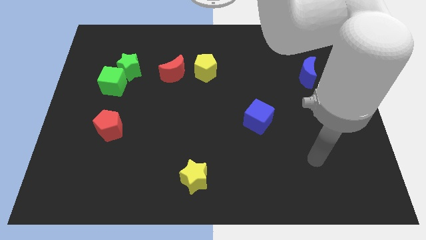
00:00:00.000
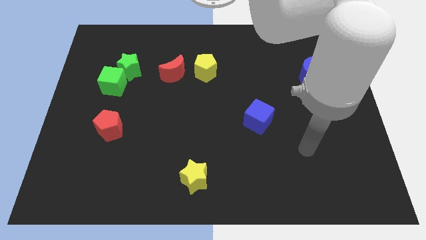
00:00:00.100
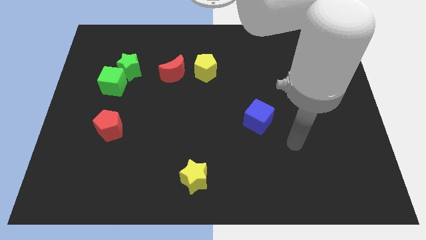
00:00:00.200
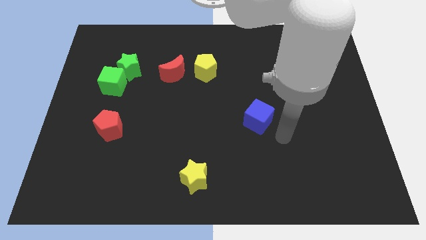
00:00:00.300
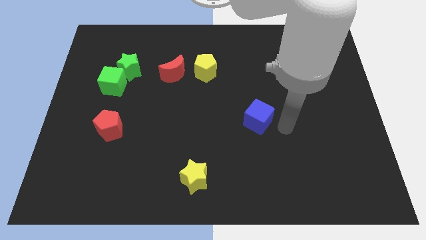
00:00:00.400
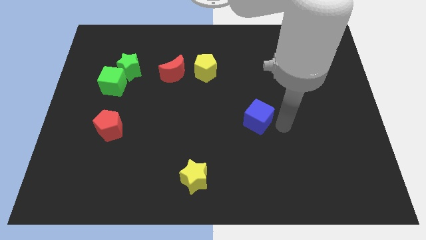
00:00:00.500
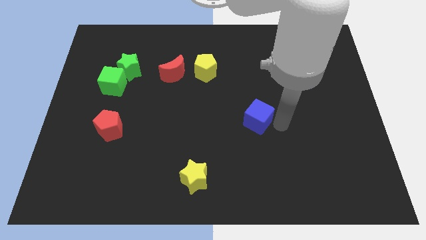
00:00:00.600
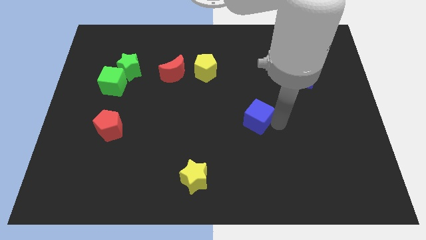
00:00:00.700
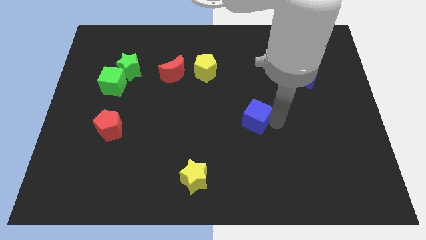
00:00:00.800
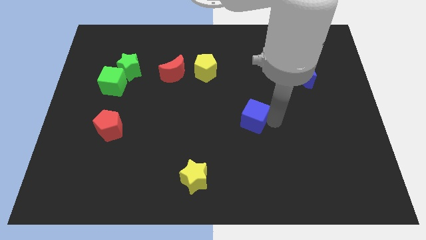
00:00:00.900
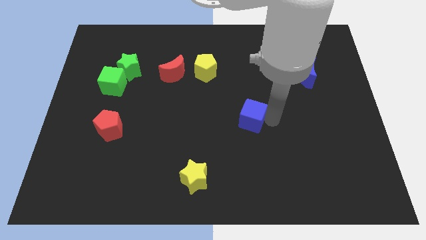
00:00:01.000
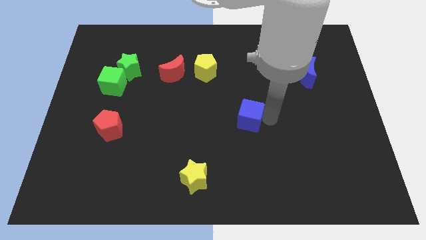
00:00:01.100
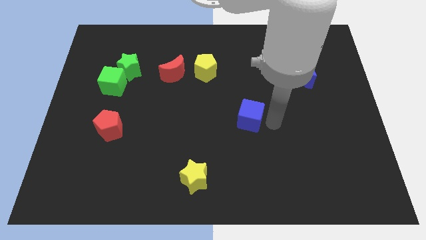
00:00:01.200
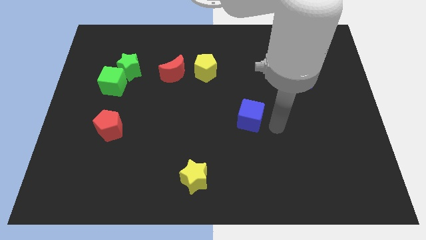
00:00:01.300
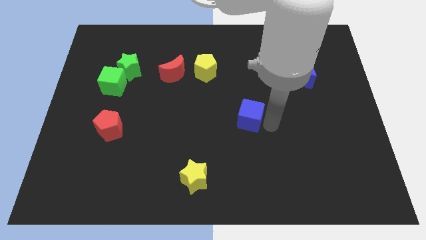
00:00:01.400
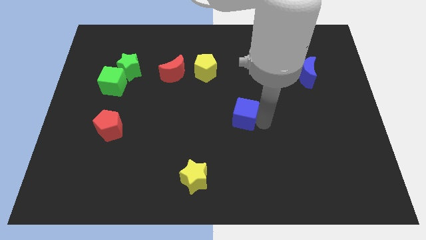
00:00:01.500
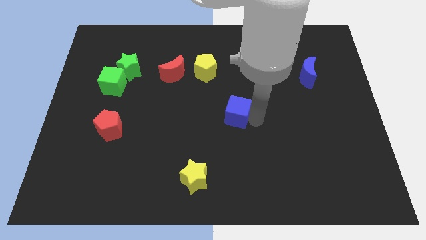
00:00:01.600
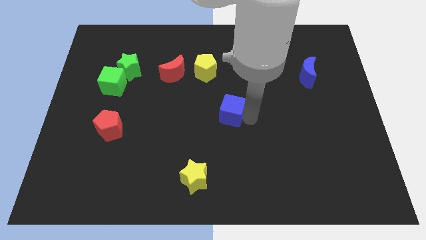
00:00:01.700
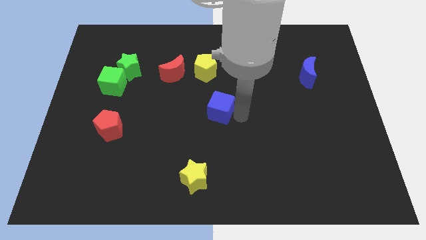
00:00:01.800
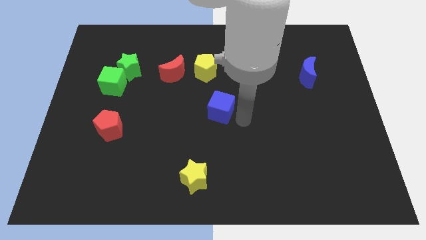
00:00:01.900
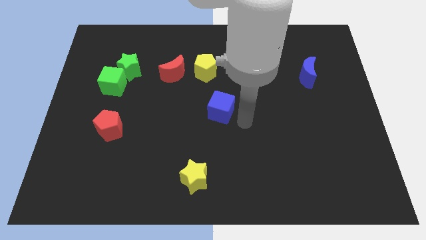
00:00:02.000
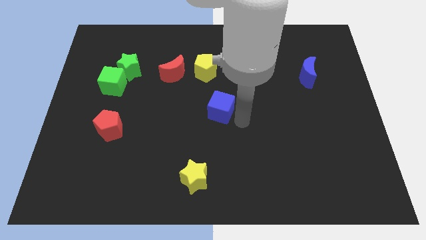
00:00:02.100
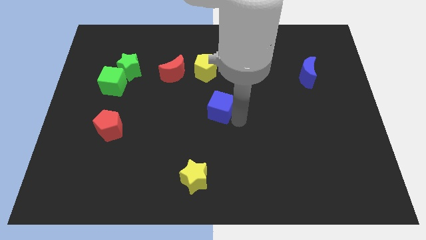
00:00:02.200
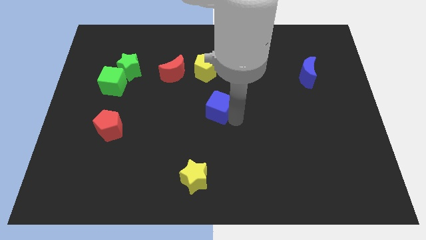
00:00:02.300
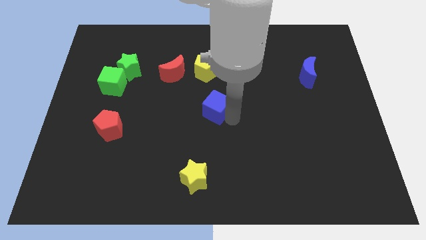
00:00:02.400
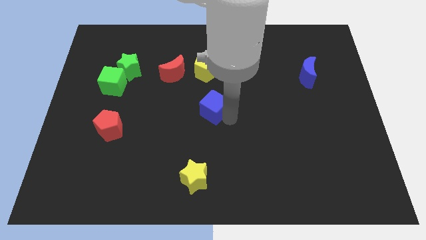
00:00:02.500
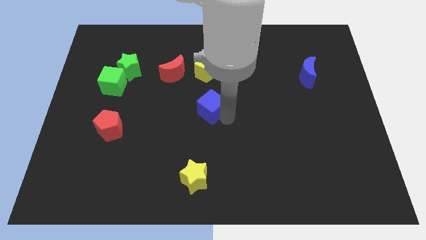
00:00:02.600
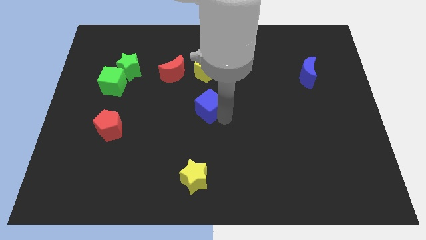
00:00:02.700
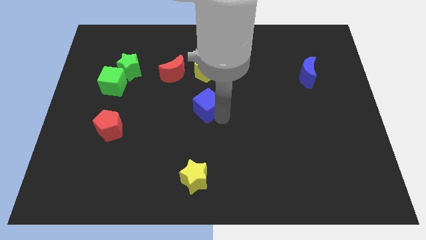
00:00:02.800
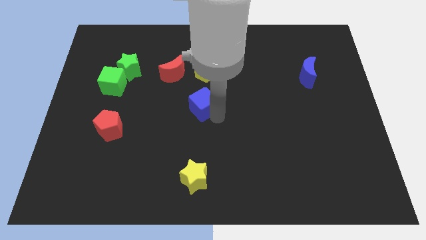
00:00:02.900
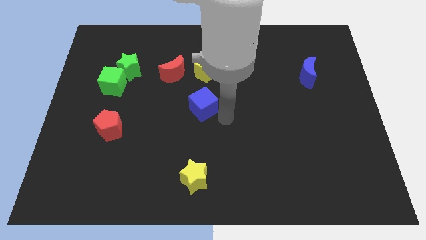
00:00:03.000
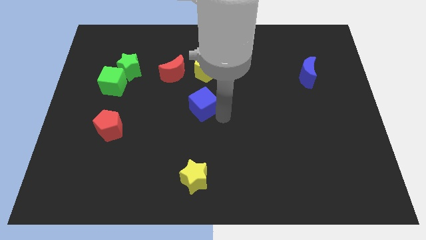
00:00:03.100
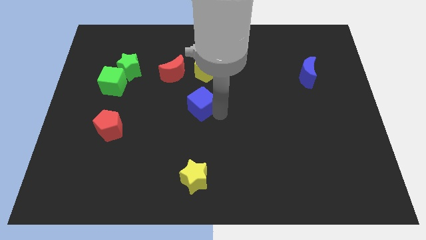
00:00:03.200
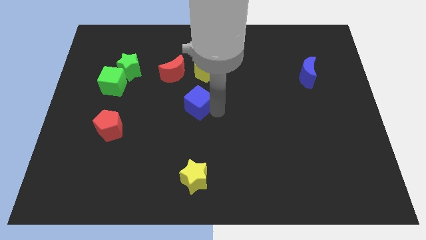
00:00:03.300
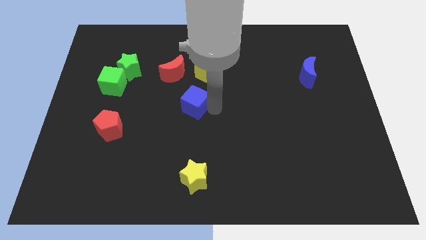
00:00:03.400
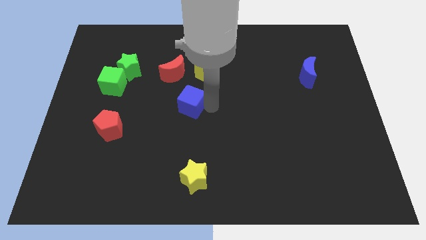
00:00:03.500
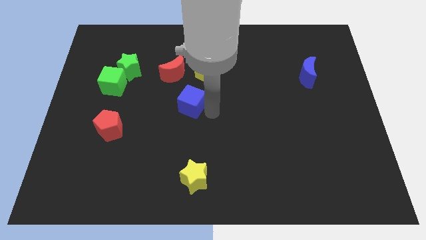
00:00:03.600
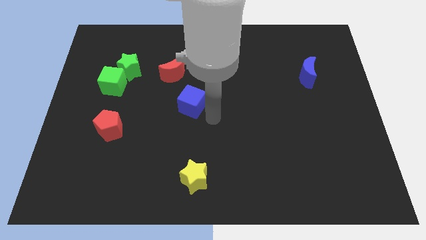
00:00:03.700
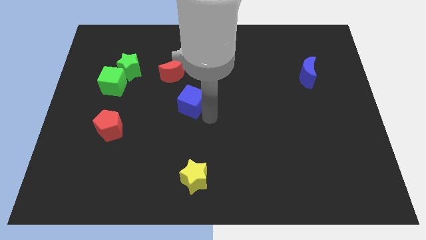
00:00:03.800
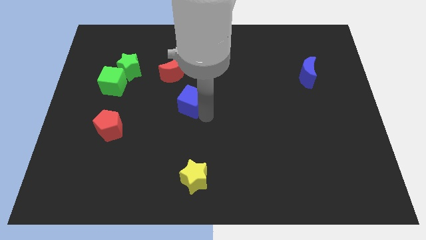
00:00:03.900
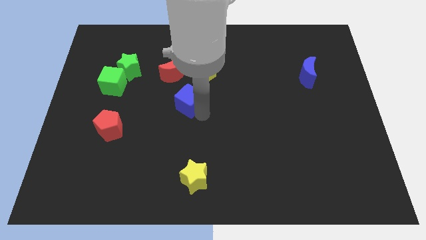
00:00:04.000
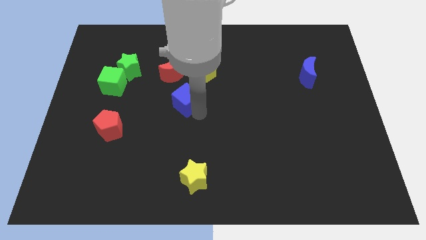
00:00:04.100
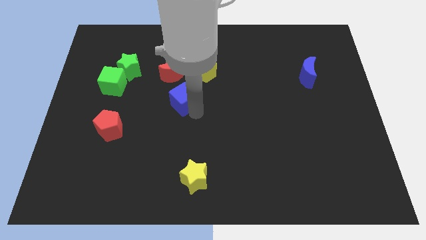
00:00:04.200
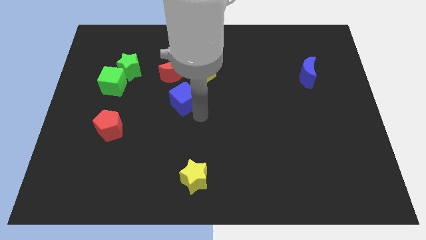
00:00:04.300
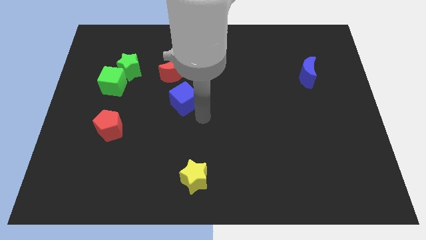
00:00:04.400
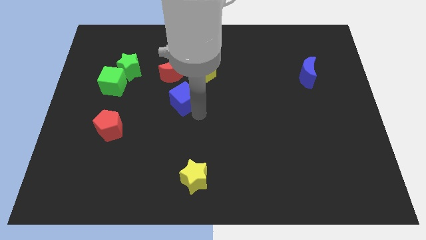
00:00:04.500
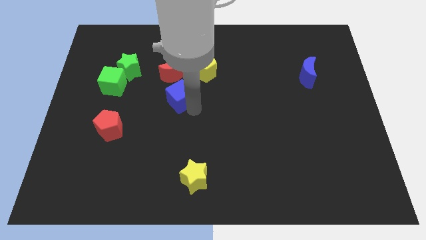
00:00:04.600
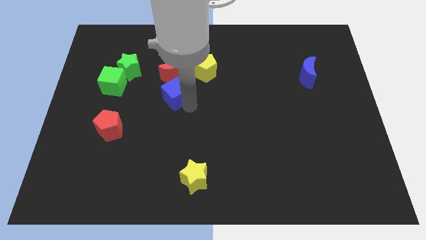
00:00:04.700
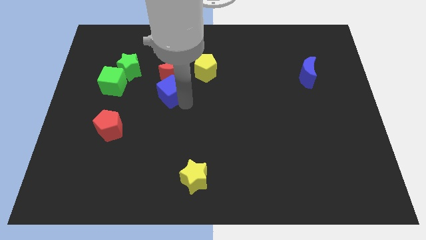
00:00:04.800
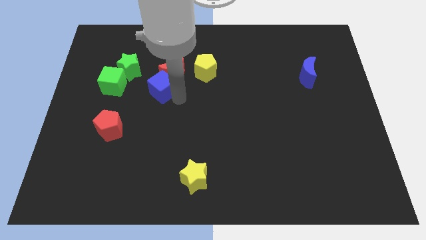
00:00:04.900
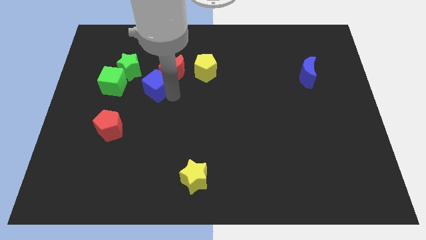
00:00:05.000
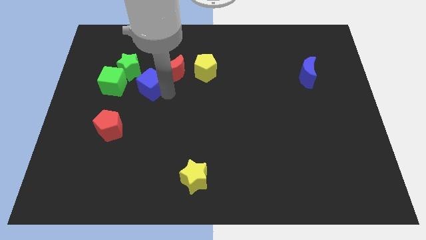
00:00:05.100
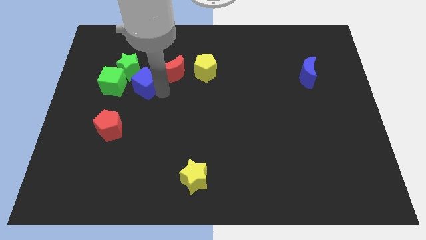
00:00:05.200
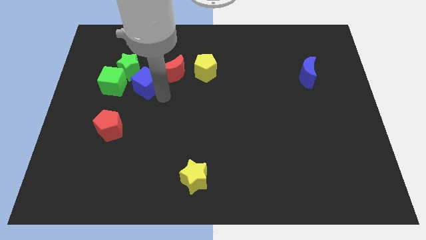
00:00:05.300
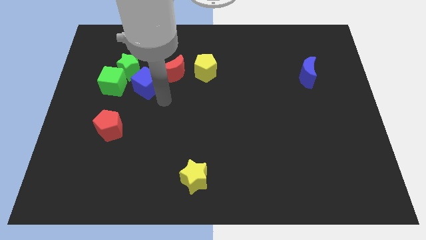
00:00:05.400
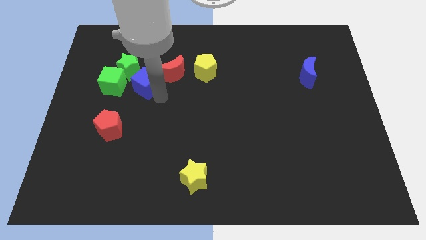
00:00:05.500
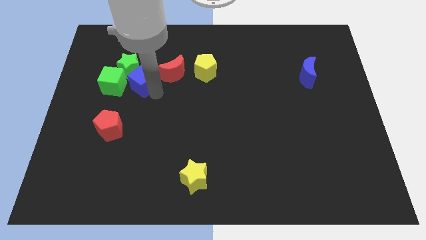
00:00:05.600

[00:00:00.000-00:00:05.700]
put the blue cube next to the green star

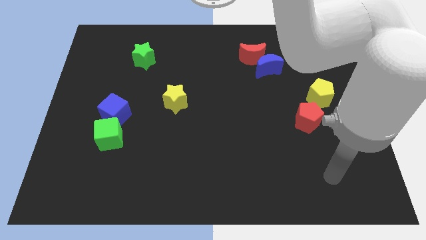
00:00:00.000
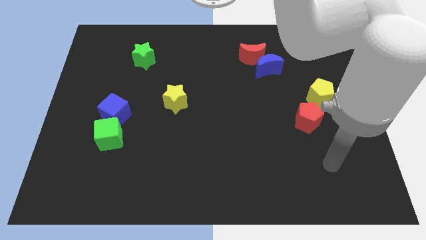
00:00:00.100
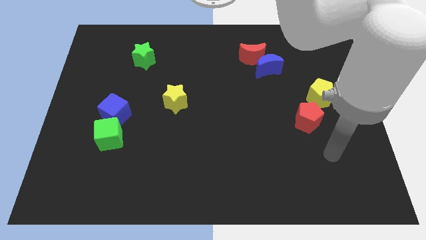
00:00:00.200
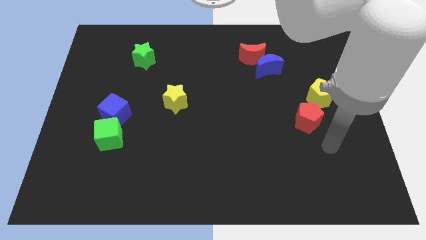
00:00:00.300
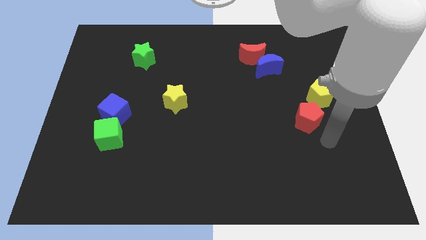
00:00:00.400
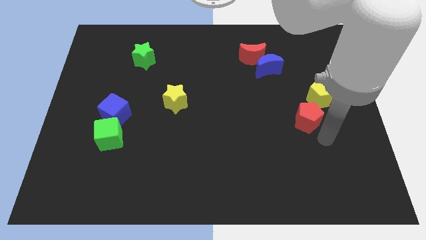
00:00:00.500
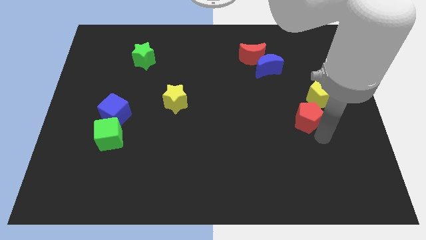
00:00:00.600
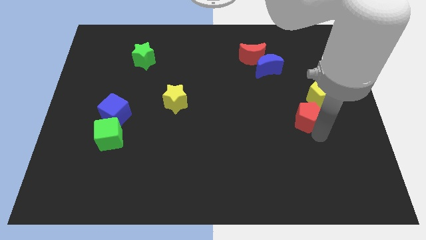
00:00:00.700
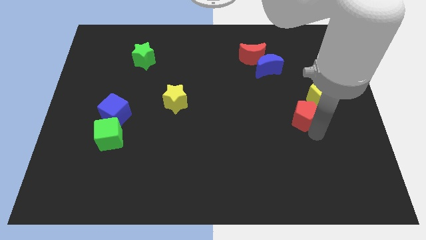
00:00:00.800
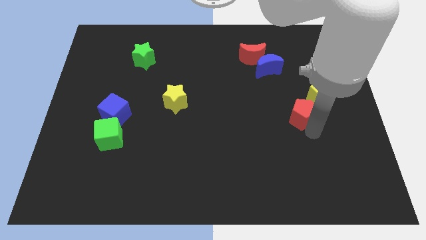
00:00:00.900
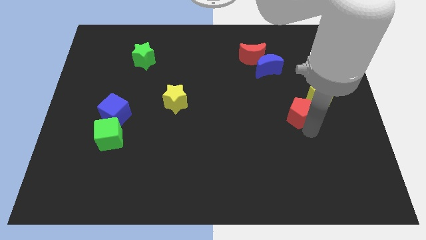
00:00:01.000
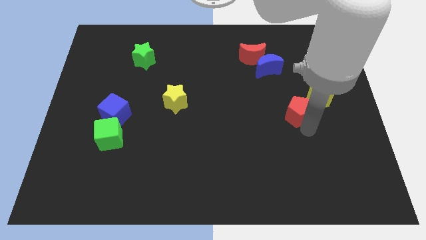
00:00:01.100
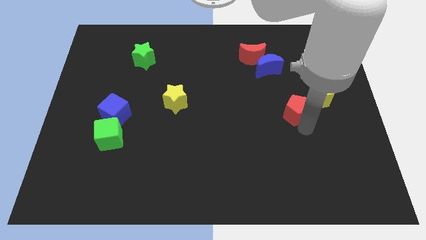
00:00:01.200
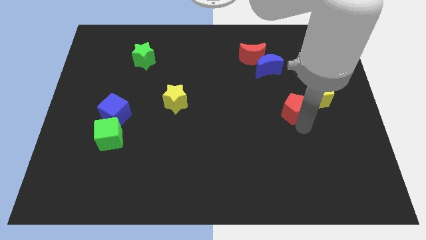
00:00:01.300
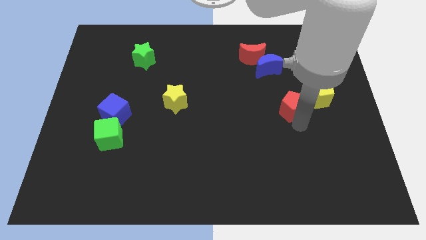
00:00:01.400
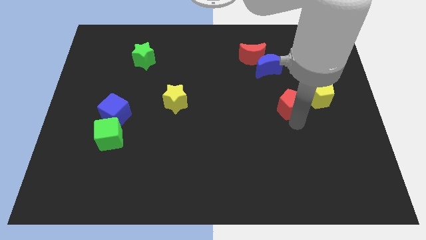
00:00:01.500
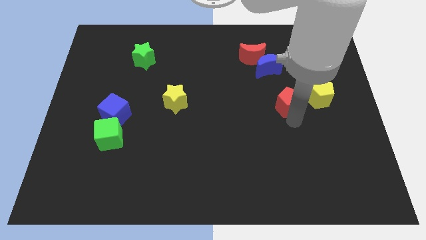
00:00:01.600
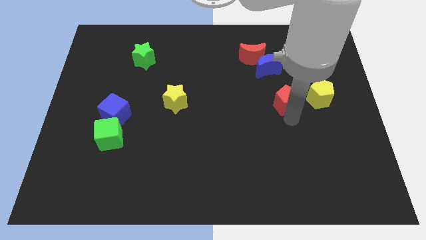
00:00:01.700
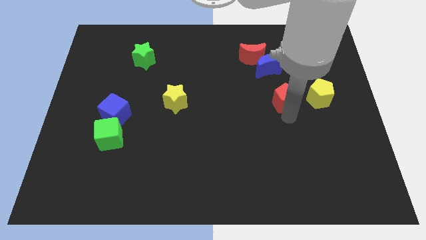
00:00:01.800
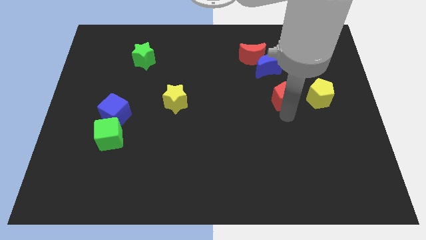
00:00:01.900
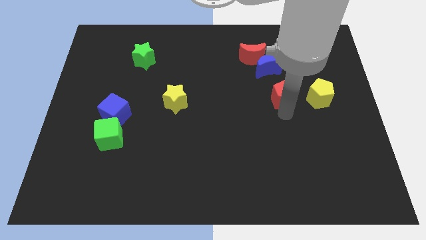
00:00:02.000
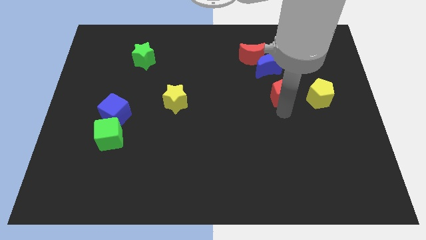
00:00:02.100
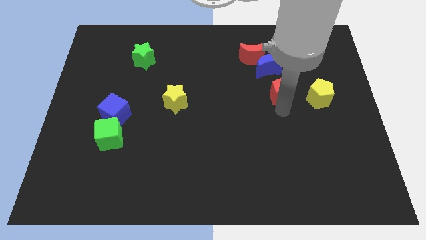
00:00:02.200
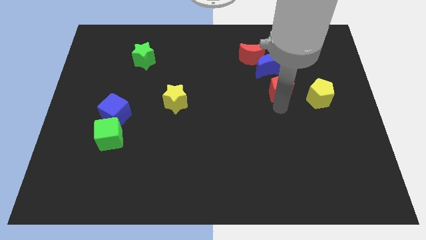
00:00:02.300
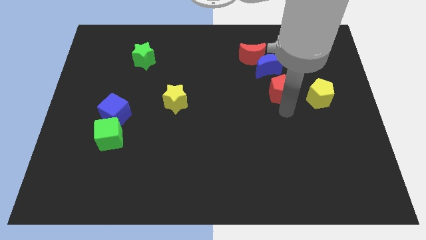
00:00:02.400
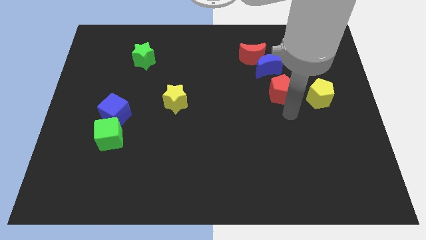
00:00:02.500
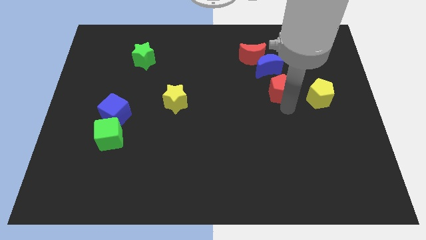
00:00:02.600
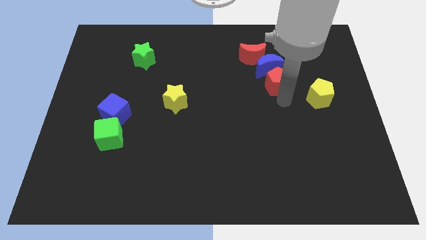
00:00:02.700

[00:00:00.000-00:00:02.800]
move the red pentagon to the blue moon

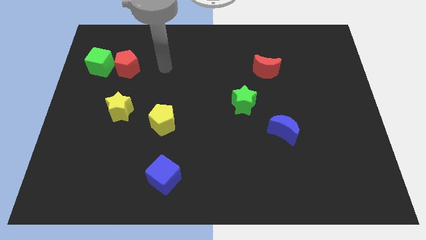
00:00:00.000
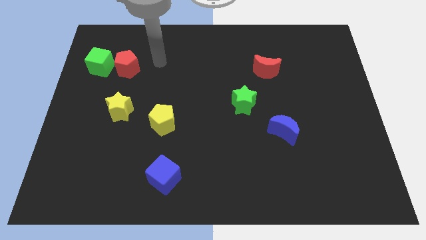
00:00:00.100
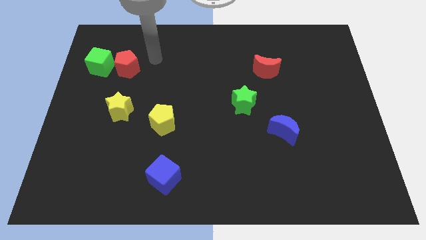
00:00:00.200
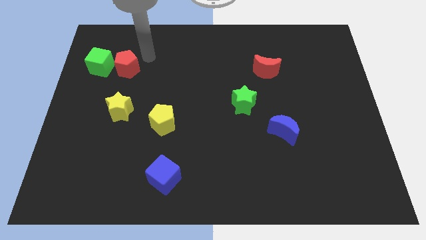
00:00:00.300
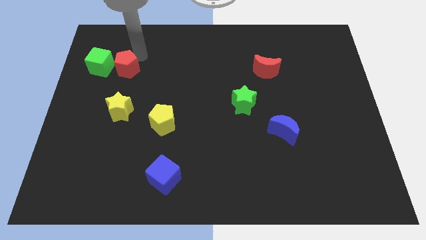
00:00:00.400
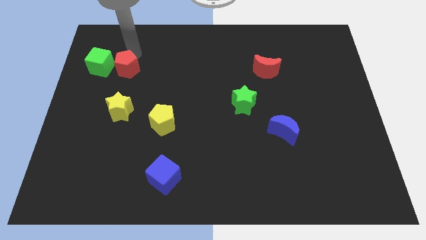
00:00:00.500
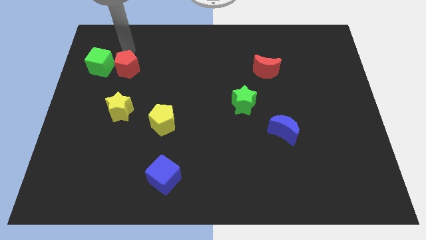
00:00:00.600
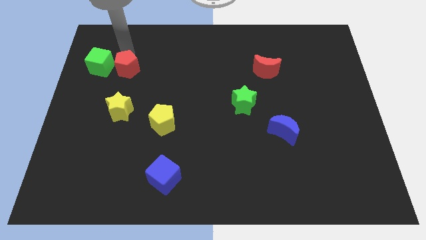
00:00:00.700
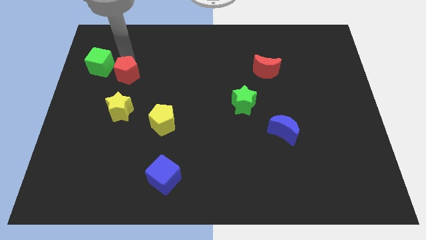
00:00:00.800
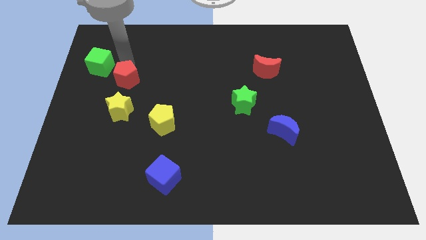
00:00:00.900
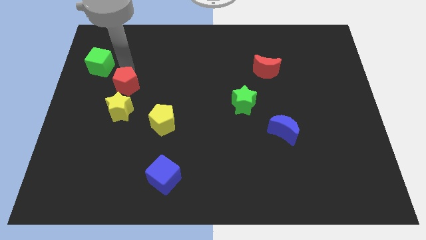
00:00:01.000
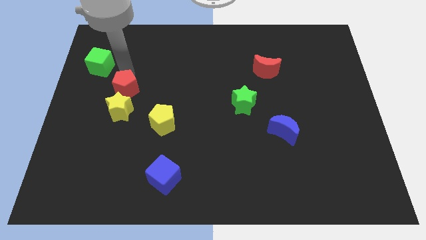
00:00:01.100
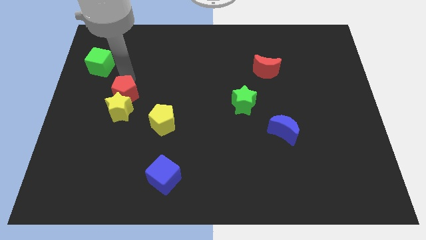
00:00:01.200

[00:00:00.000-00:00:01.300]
slide the red pentagon to the yellow star
